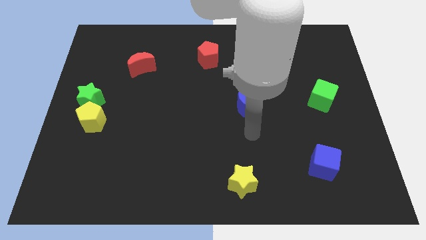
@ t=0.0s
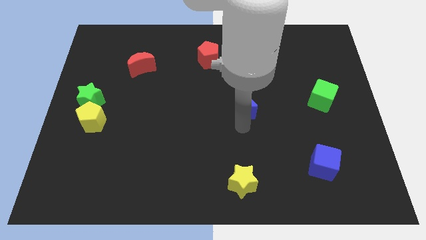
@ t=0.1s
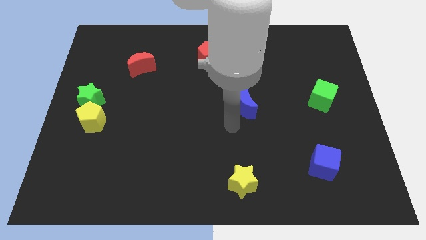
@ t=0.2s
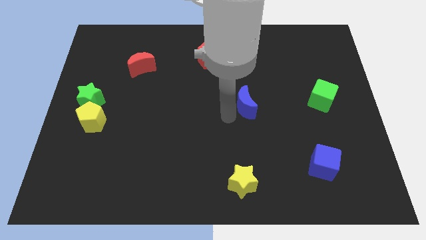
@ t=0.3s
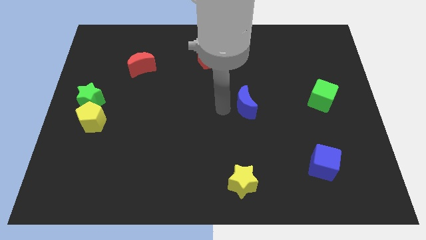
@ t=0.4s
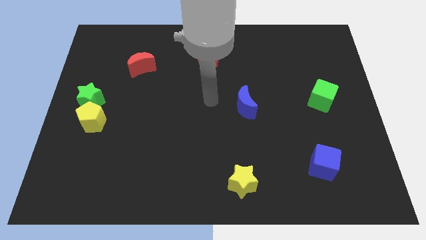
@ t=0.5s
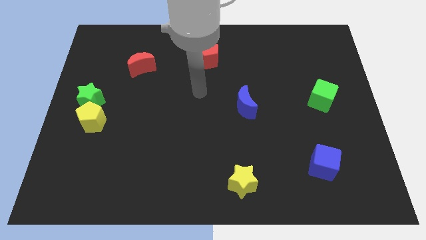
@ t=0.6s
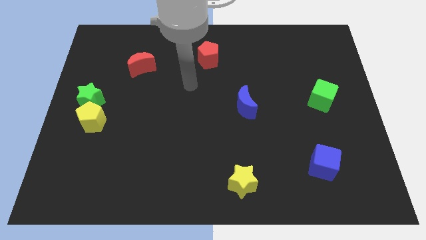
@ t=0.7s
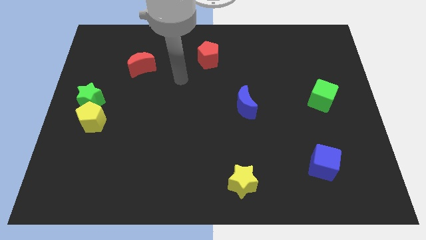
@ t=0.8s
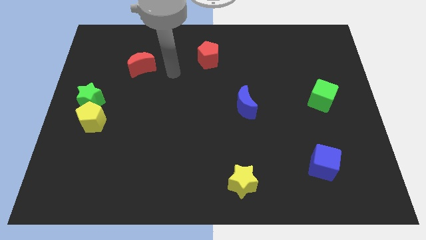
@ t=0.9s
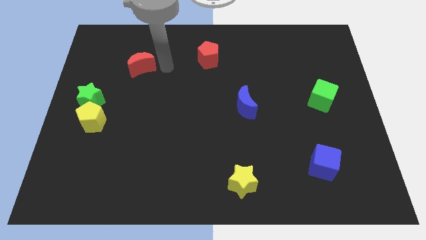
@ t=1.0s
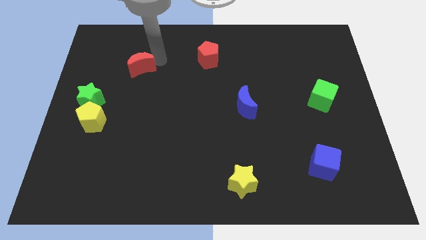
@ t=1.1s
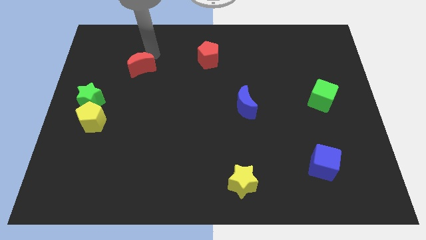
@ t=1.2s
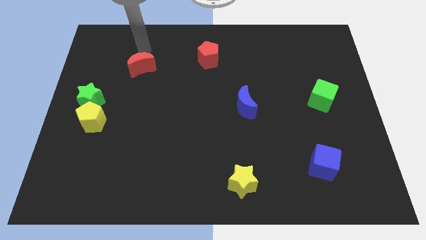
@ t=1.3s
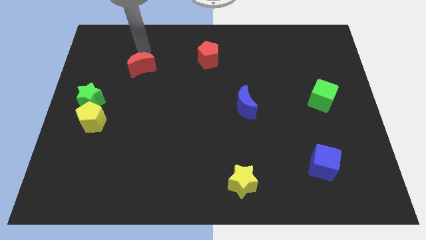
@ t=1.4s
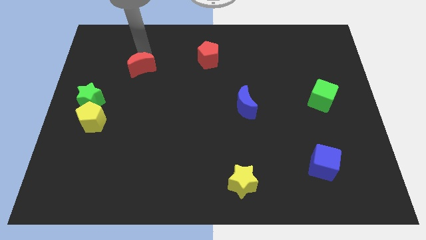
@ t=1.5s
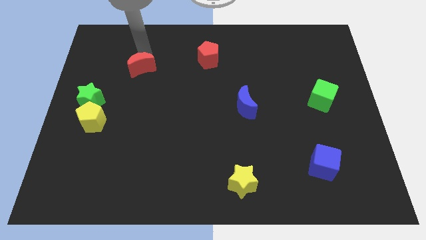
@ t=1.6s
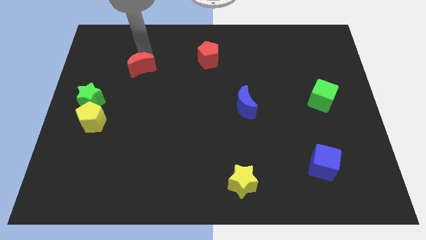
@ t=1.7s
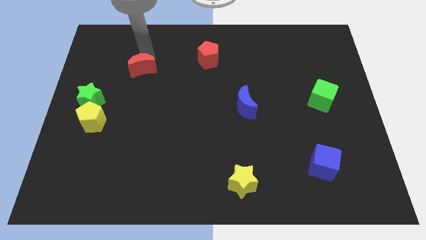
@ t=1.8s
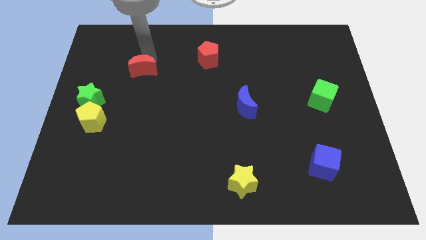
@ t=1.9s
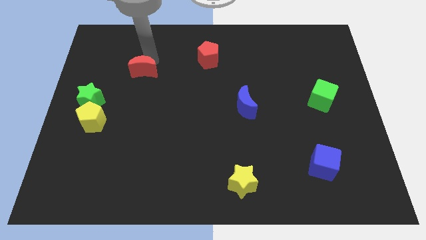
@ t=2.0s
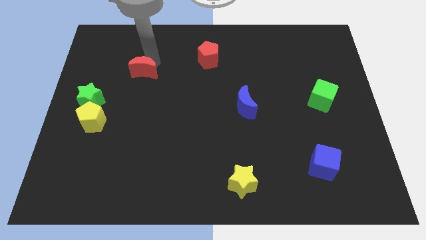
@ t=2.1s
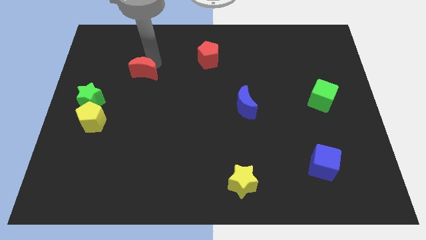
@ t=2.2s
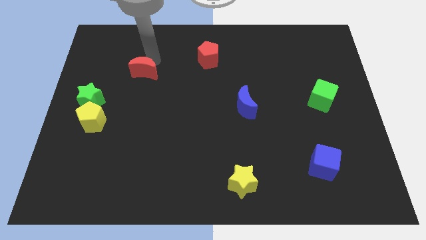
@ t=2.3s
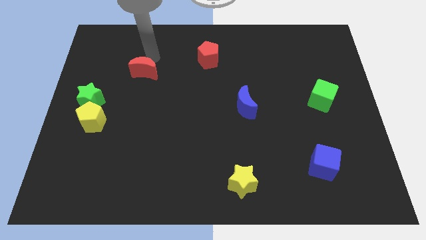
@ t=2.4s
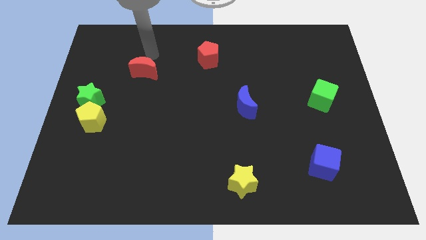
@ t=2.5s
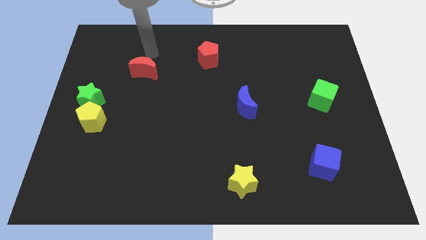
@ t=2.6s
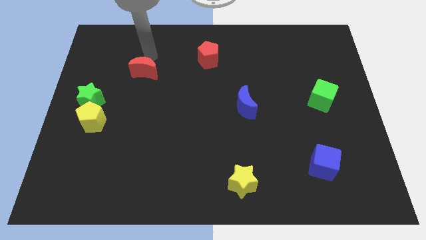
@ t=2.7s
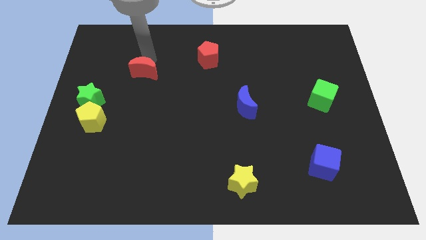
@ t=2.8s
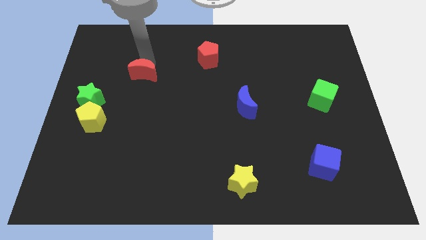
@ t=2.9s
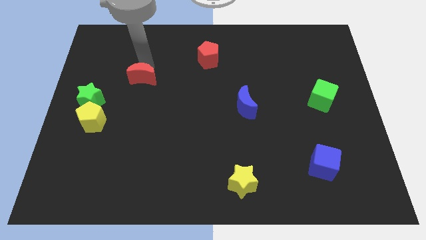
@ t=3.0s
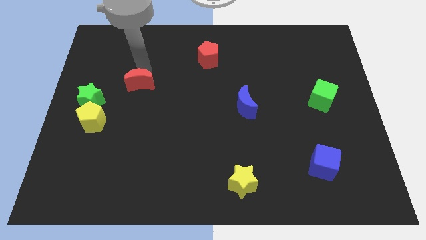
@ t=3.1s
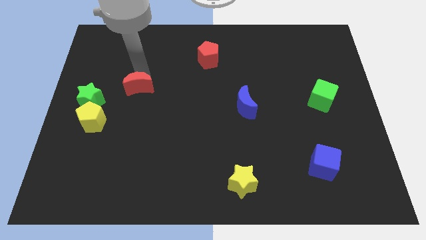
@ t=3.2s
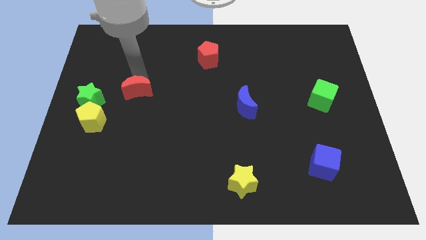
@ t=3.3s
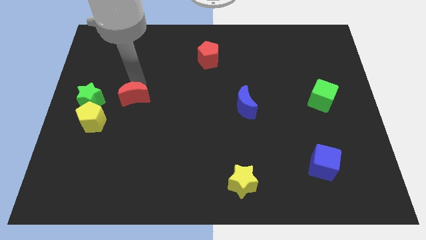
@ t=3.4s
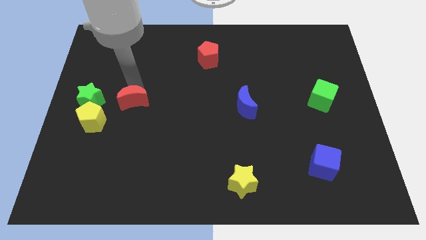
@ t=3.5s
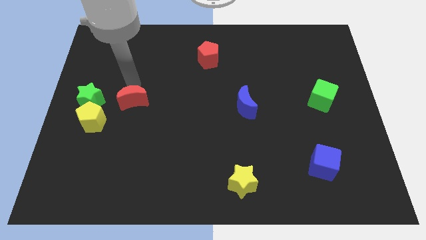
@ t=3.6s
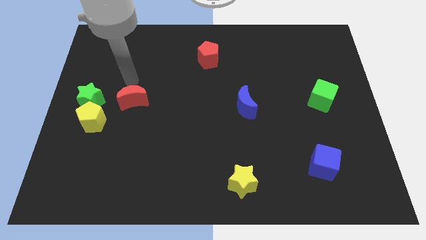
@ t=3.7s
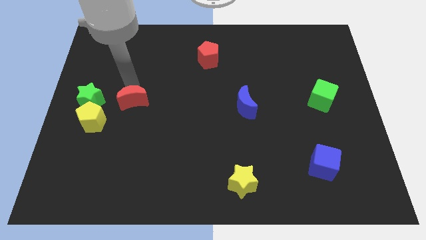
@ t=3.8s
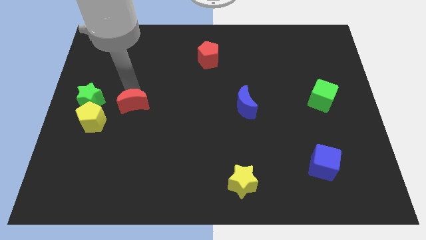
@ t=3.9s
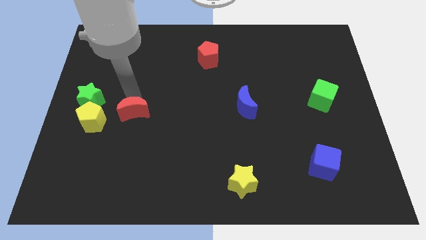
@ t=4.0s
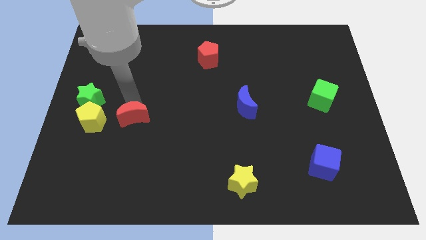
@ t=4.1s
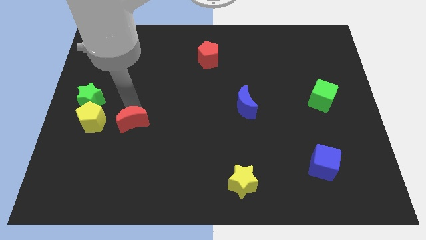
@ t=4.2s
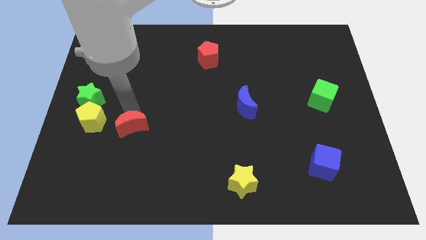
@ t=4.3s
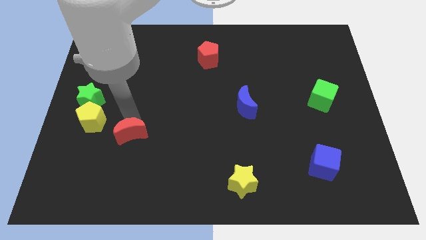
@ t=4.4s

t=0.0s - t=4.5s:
move the red moon downwards

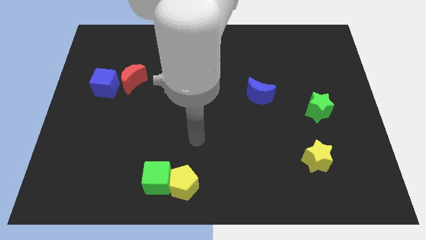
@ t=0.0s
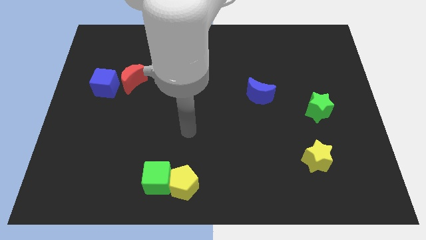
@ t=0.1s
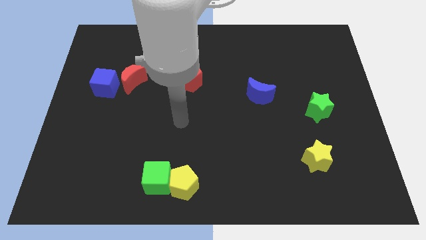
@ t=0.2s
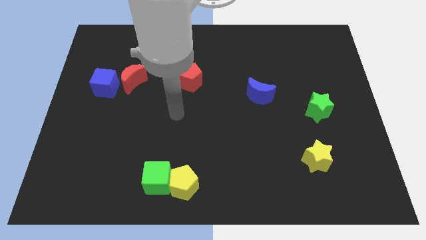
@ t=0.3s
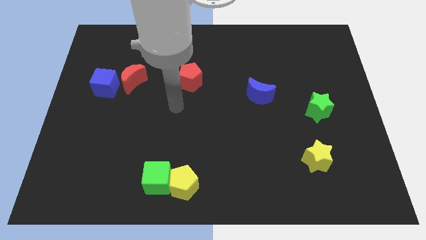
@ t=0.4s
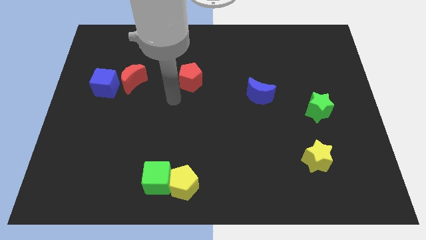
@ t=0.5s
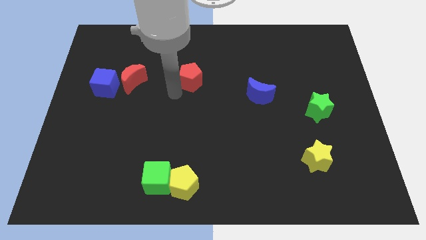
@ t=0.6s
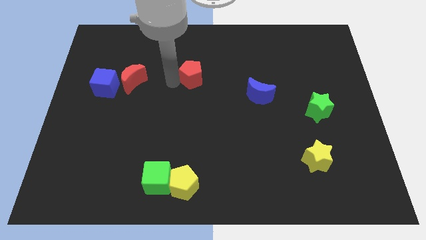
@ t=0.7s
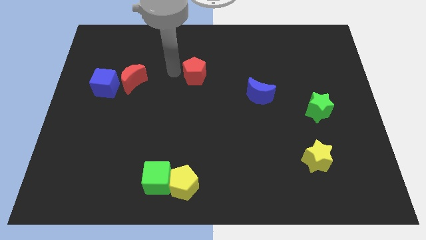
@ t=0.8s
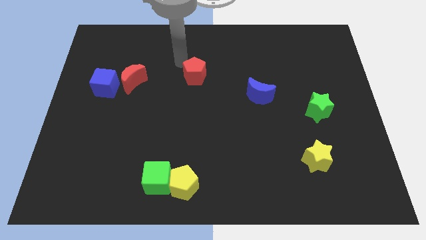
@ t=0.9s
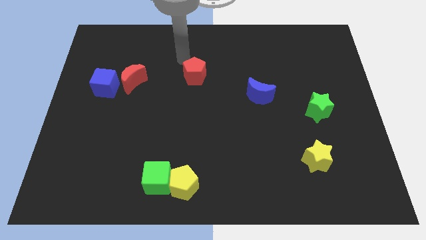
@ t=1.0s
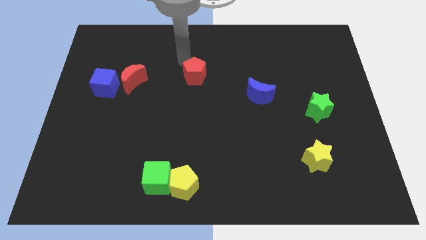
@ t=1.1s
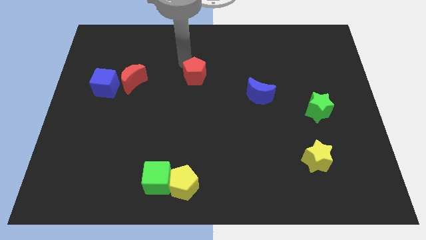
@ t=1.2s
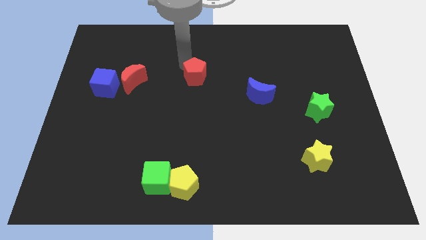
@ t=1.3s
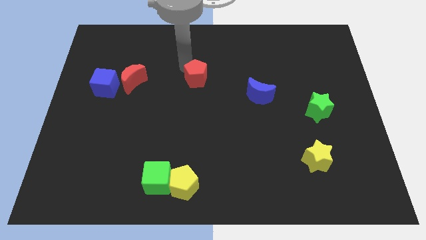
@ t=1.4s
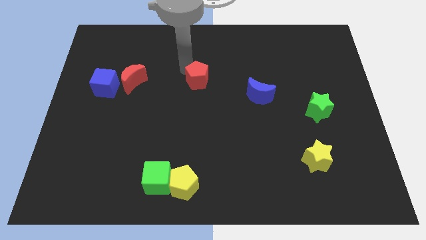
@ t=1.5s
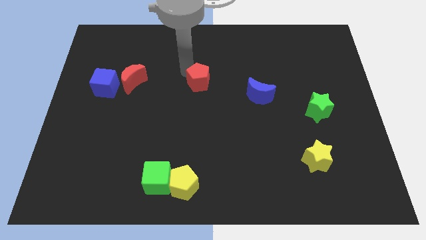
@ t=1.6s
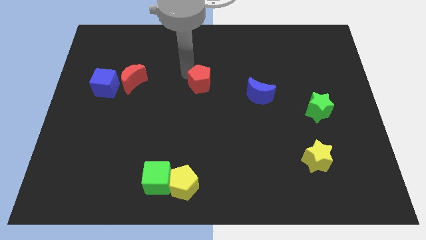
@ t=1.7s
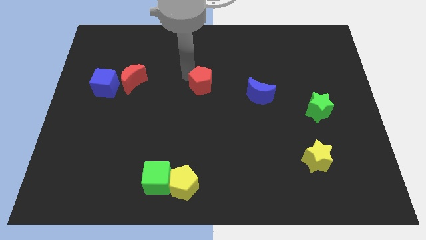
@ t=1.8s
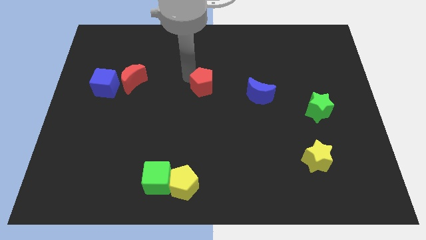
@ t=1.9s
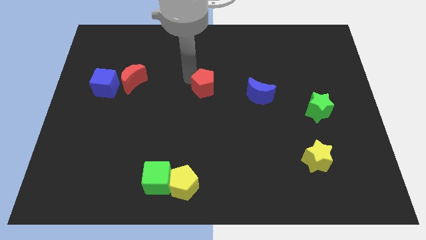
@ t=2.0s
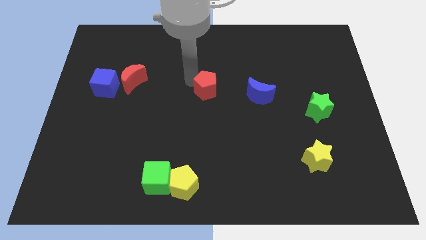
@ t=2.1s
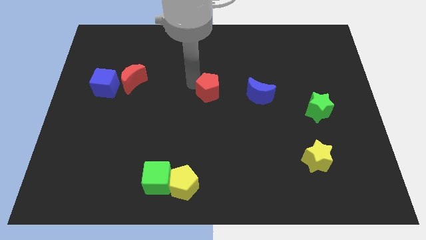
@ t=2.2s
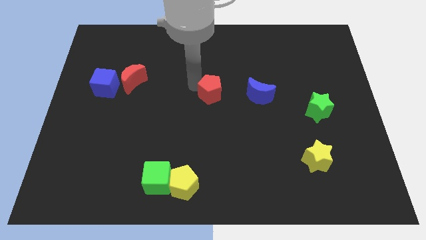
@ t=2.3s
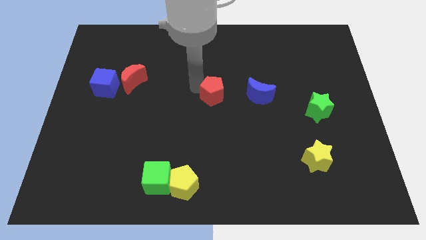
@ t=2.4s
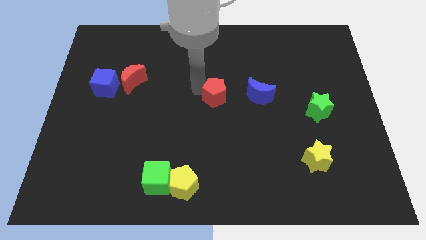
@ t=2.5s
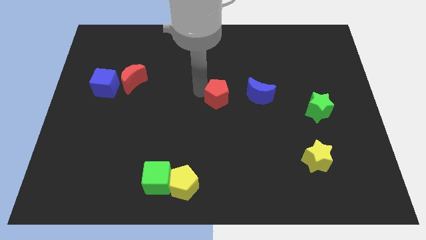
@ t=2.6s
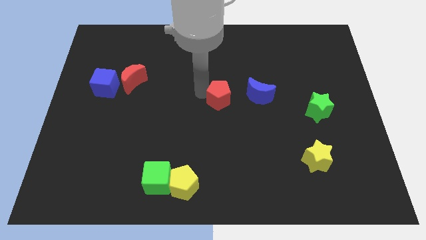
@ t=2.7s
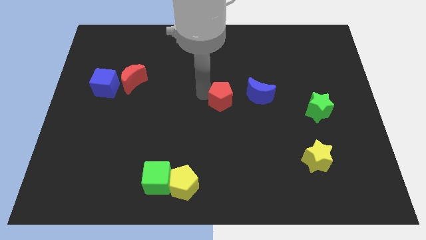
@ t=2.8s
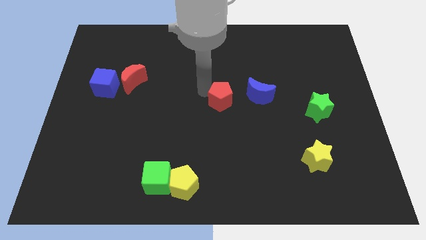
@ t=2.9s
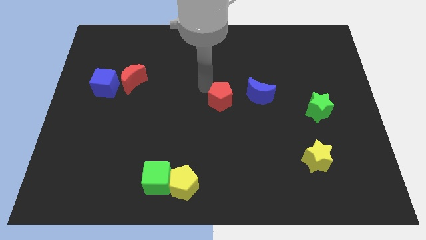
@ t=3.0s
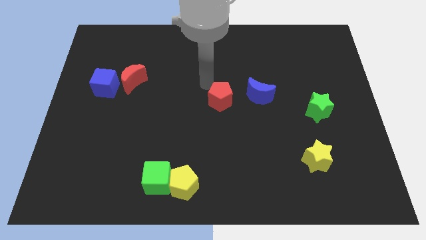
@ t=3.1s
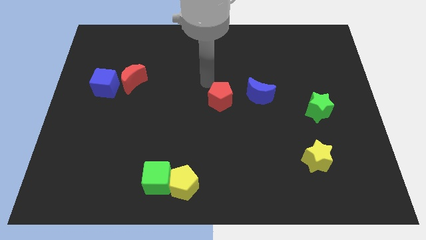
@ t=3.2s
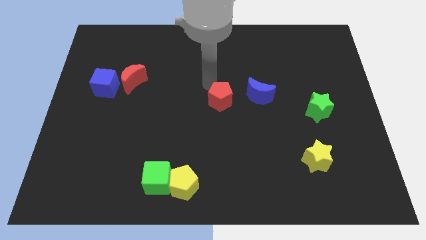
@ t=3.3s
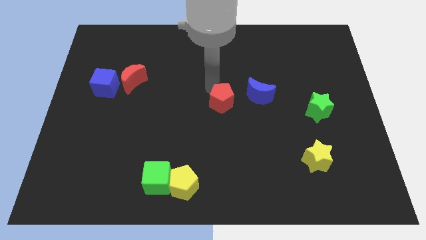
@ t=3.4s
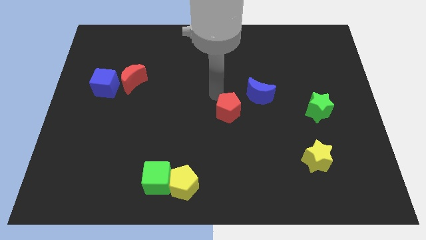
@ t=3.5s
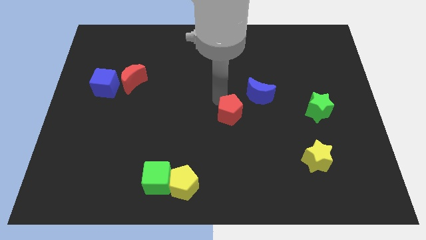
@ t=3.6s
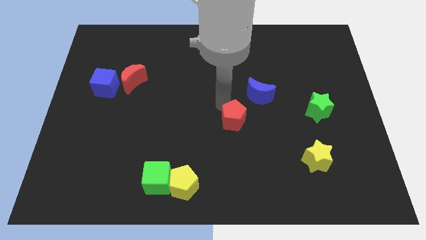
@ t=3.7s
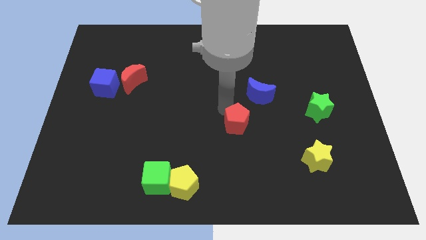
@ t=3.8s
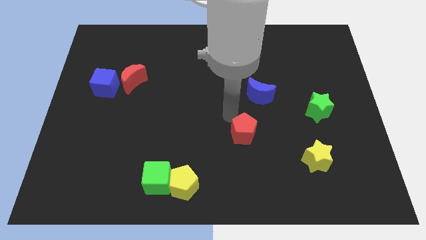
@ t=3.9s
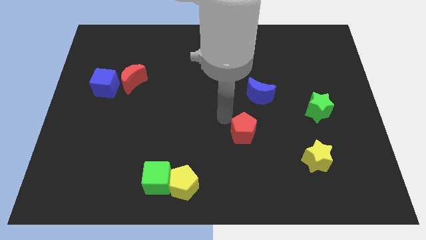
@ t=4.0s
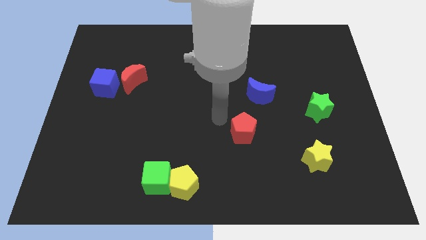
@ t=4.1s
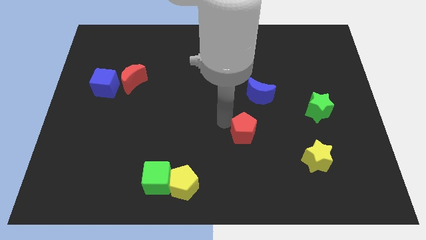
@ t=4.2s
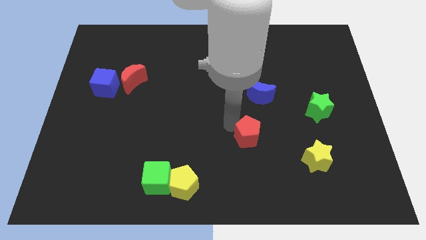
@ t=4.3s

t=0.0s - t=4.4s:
move the red pentagon down and to the right
